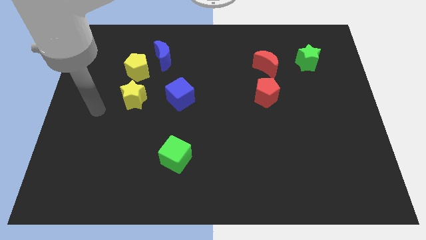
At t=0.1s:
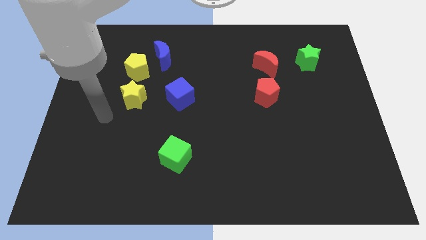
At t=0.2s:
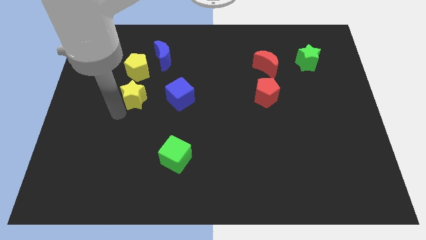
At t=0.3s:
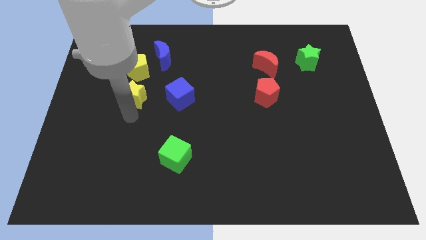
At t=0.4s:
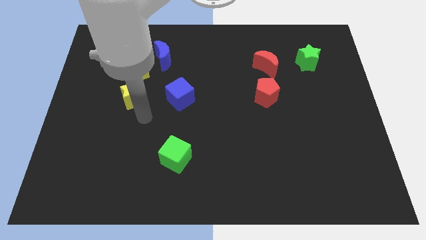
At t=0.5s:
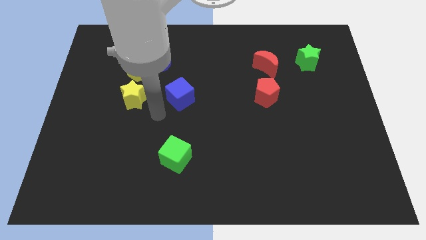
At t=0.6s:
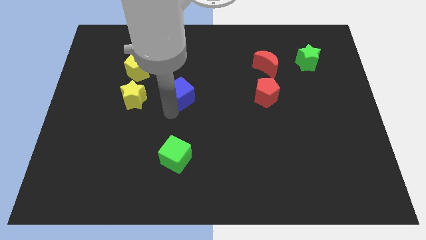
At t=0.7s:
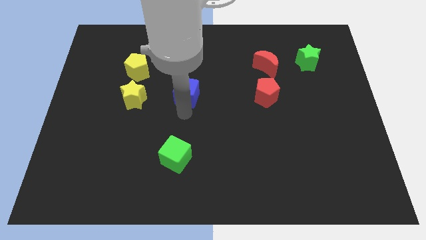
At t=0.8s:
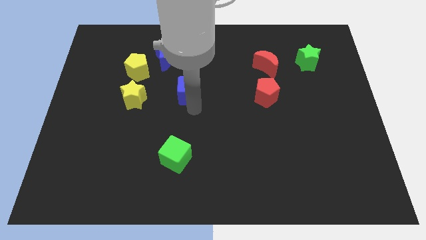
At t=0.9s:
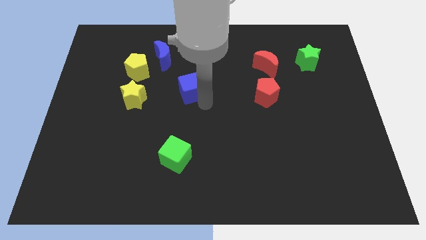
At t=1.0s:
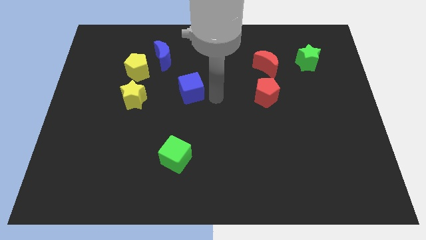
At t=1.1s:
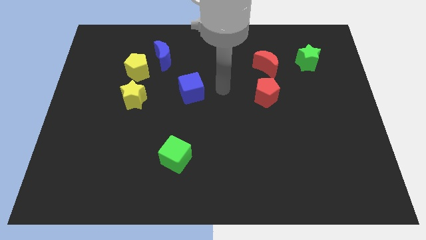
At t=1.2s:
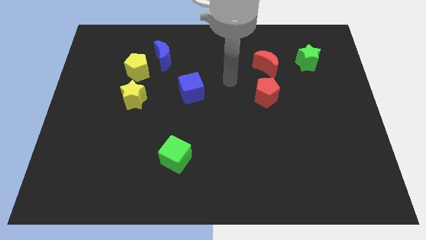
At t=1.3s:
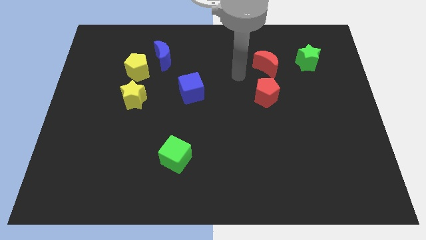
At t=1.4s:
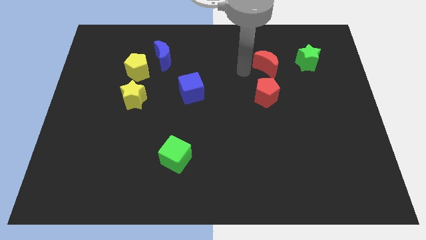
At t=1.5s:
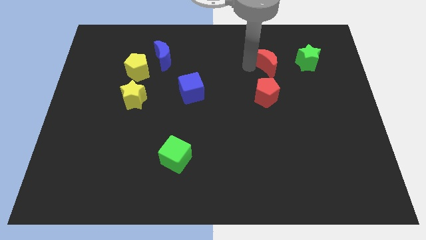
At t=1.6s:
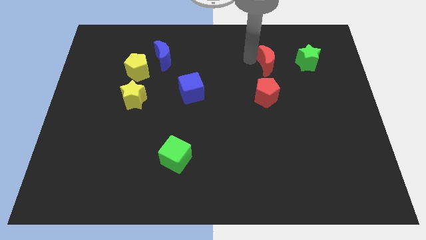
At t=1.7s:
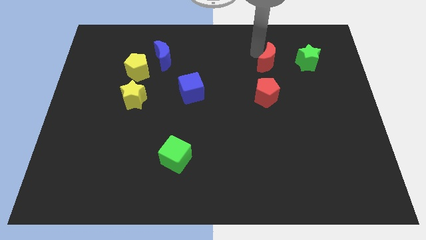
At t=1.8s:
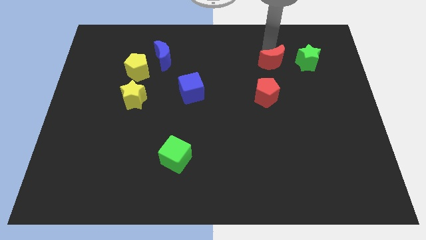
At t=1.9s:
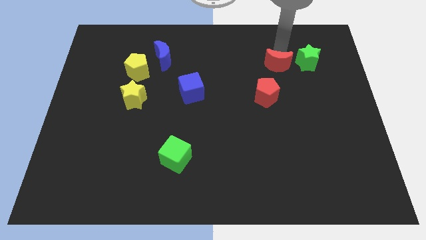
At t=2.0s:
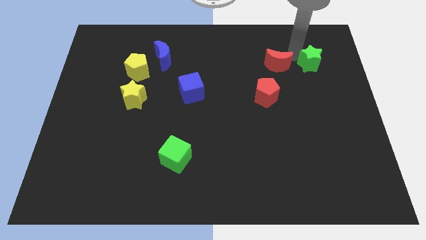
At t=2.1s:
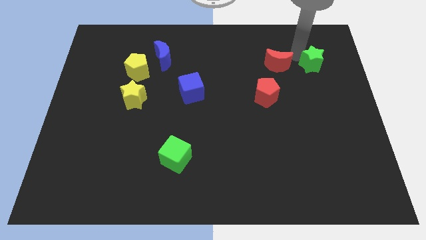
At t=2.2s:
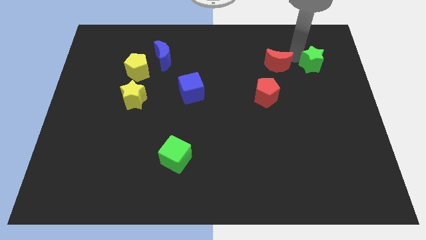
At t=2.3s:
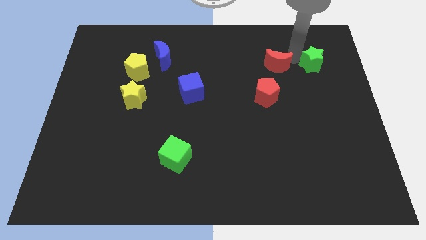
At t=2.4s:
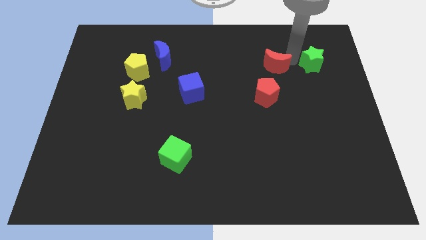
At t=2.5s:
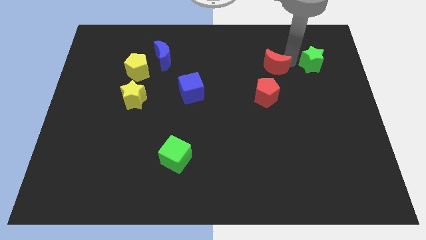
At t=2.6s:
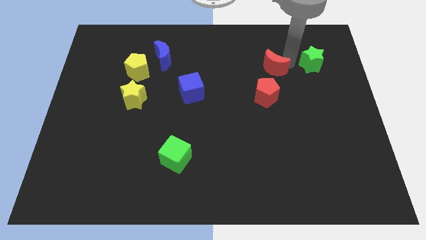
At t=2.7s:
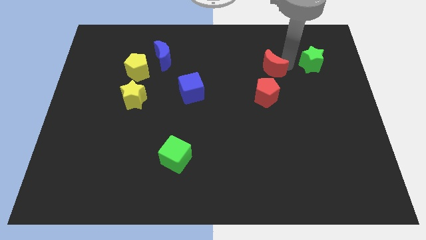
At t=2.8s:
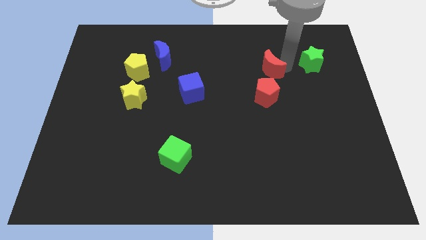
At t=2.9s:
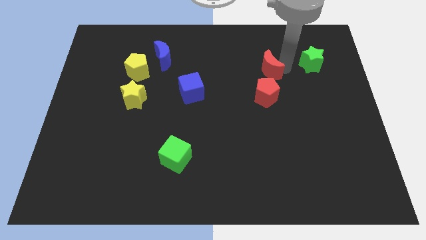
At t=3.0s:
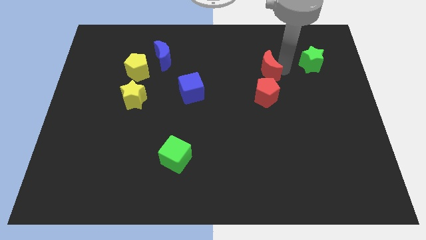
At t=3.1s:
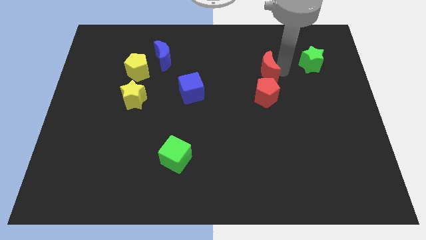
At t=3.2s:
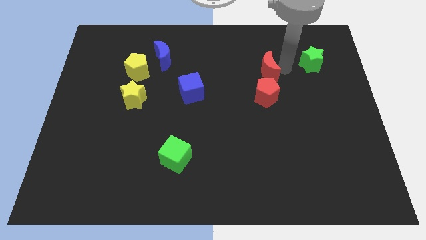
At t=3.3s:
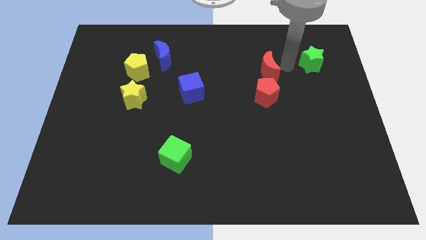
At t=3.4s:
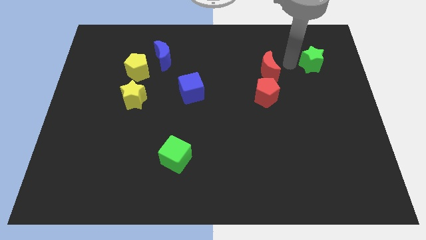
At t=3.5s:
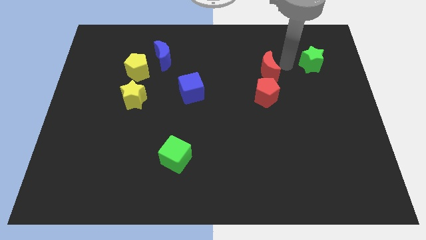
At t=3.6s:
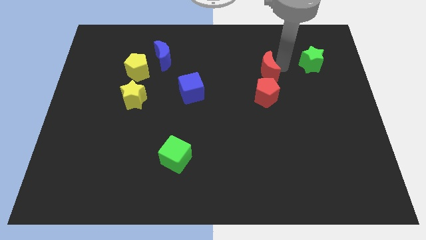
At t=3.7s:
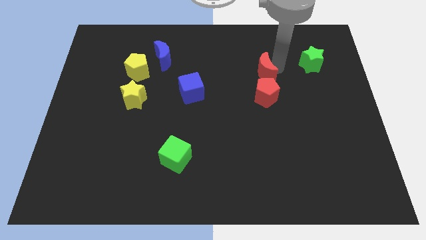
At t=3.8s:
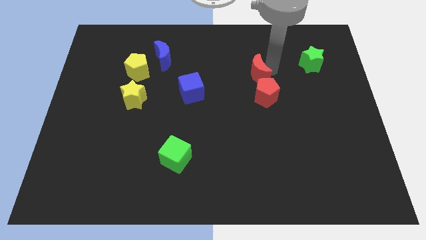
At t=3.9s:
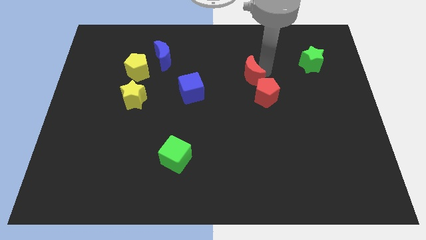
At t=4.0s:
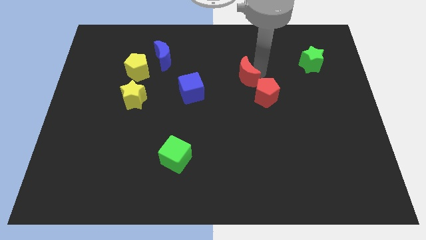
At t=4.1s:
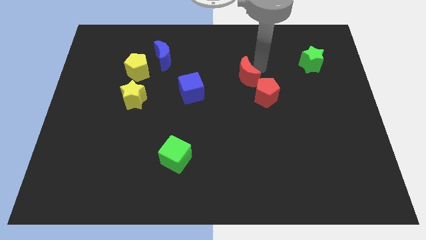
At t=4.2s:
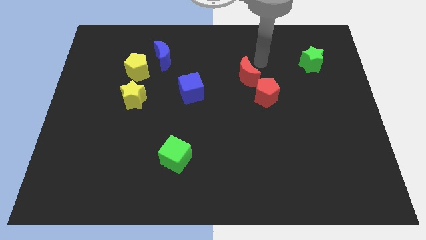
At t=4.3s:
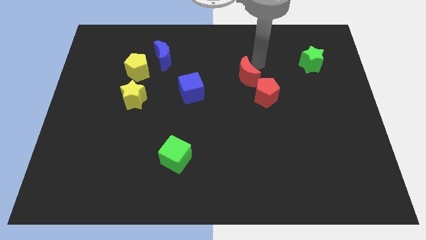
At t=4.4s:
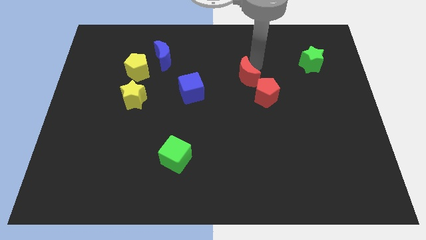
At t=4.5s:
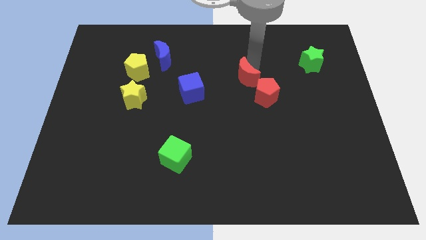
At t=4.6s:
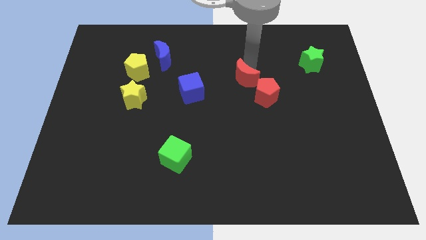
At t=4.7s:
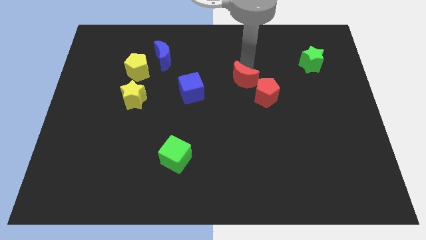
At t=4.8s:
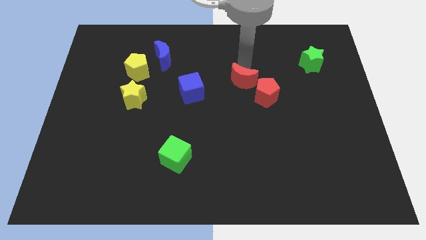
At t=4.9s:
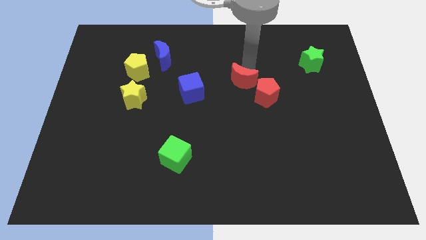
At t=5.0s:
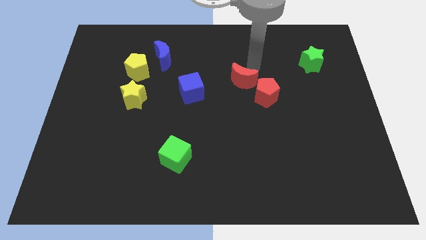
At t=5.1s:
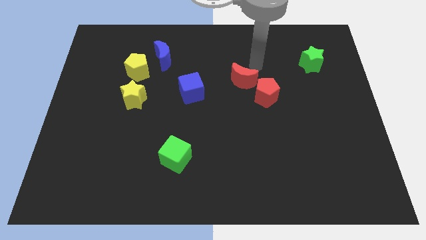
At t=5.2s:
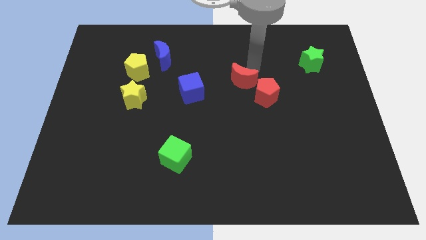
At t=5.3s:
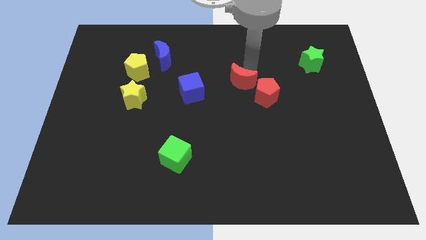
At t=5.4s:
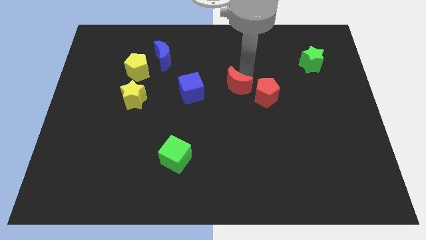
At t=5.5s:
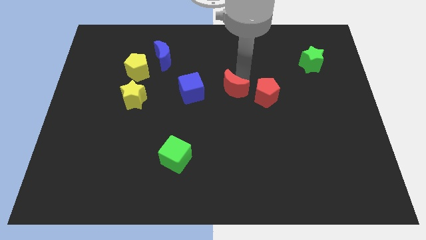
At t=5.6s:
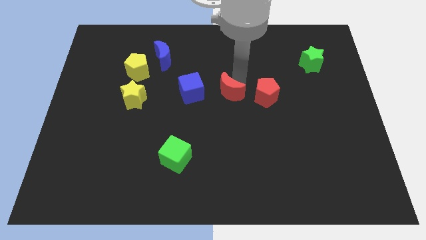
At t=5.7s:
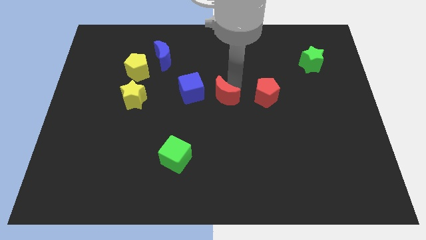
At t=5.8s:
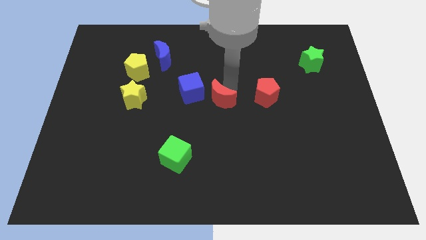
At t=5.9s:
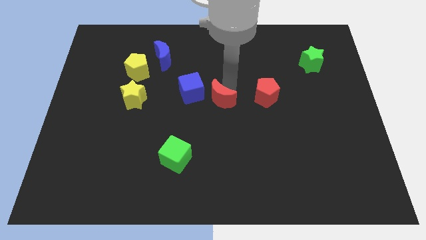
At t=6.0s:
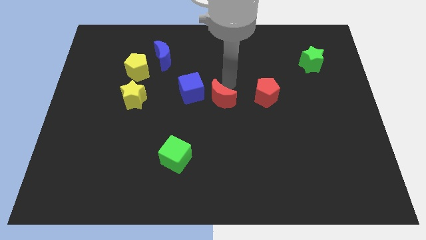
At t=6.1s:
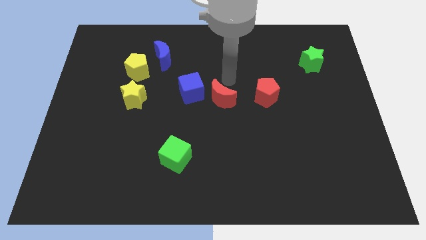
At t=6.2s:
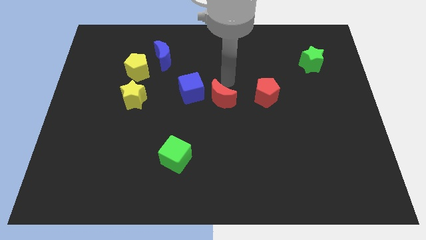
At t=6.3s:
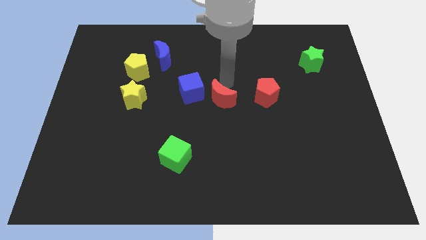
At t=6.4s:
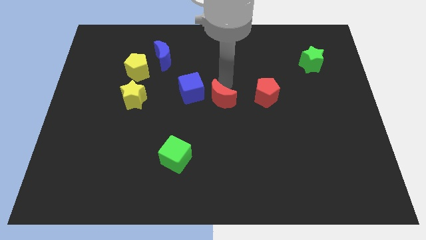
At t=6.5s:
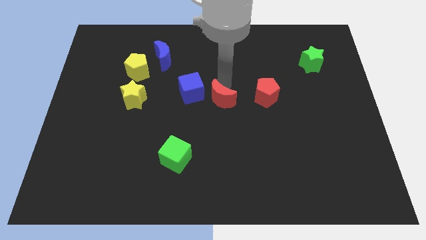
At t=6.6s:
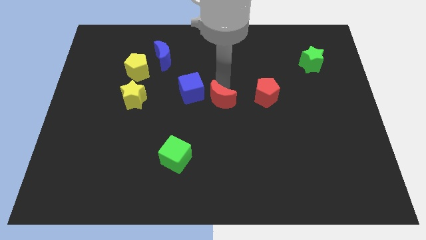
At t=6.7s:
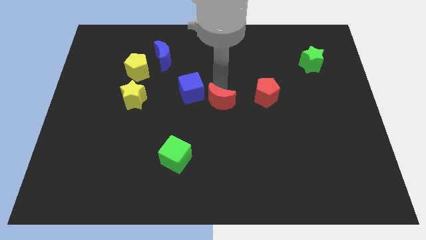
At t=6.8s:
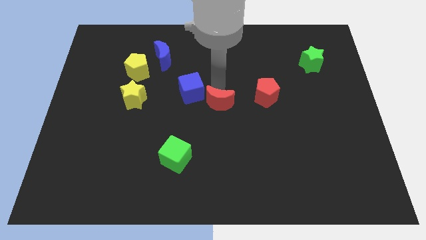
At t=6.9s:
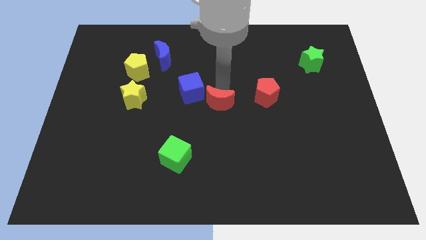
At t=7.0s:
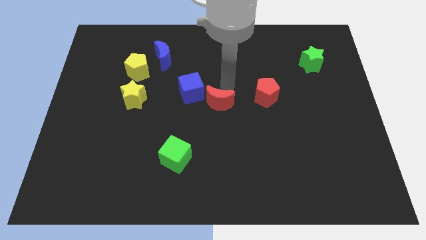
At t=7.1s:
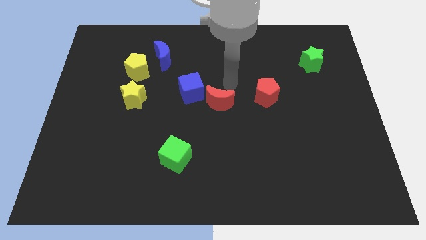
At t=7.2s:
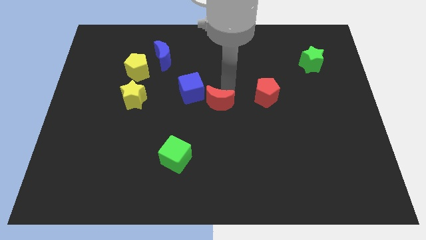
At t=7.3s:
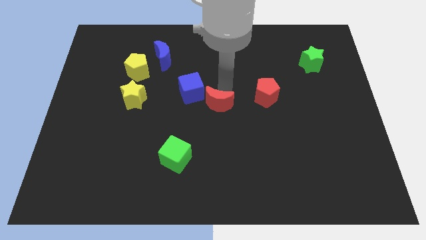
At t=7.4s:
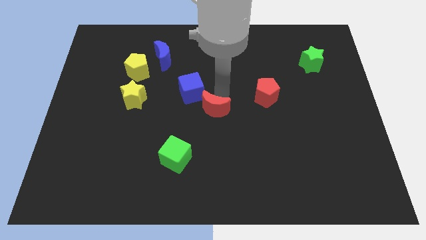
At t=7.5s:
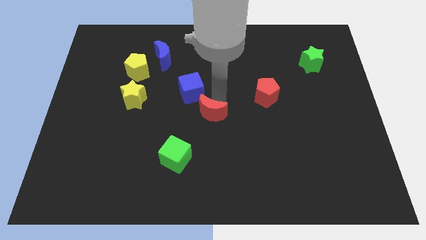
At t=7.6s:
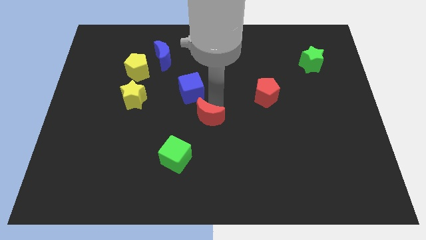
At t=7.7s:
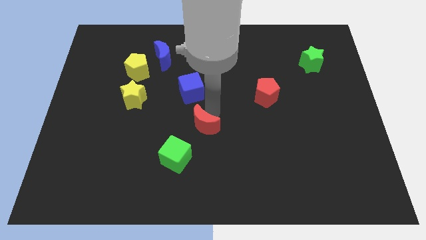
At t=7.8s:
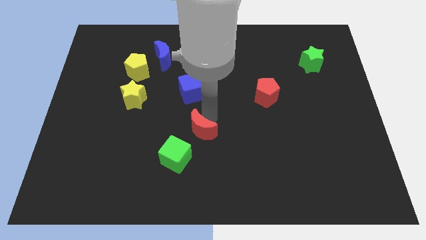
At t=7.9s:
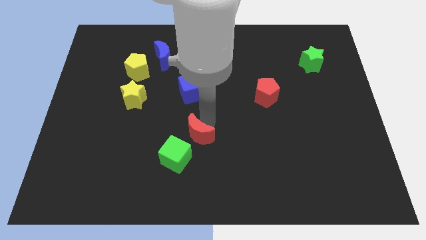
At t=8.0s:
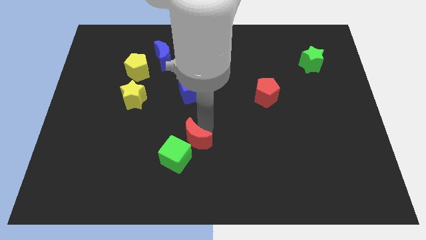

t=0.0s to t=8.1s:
slide the red moon close to the green cube
